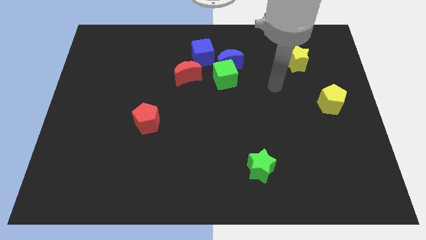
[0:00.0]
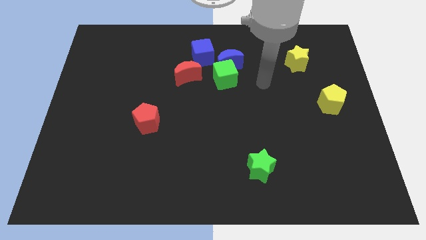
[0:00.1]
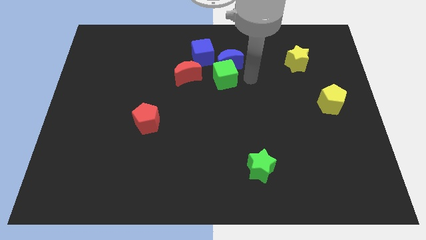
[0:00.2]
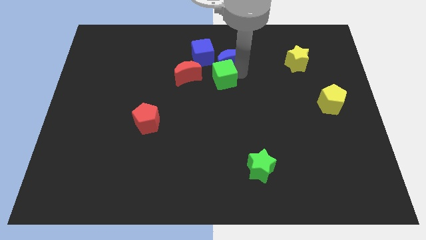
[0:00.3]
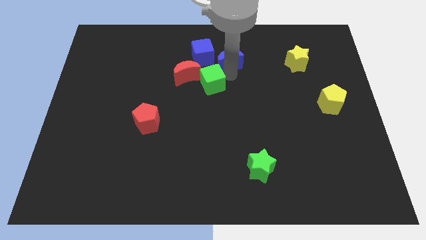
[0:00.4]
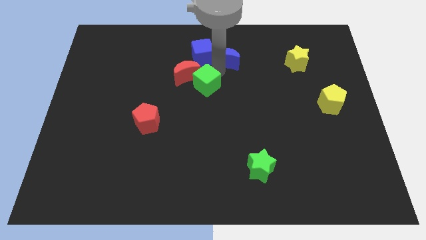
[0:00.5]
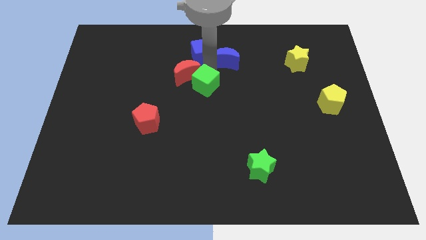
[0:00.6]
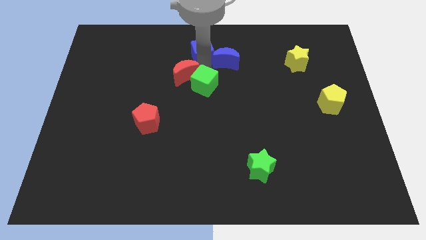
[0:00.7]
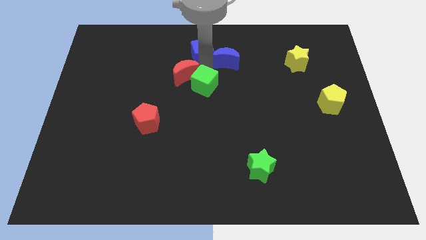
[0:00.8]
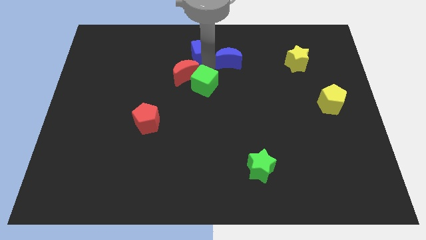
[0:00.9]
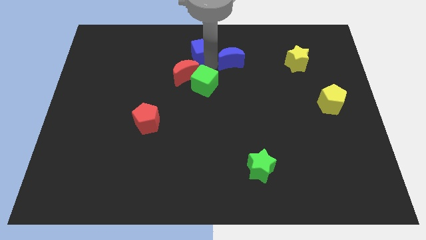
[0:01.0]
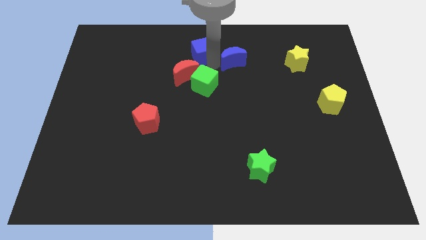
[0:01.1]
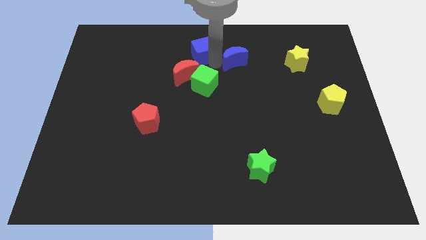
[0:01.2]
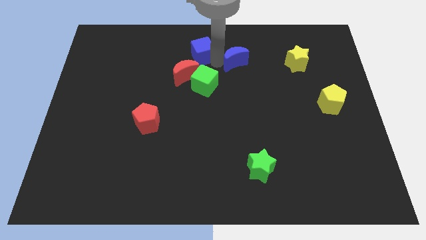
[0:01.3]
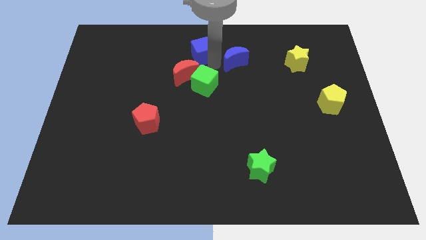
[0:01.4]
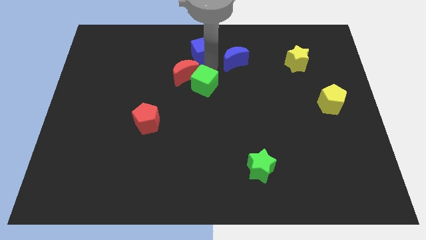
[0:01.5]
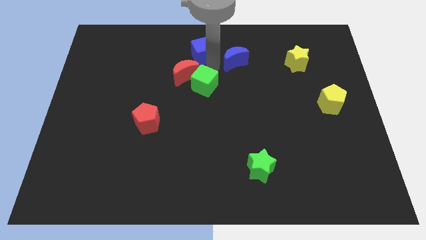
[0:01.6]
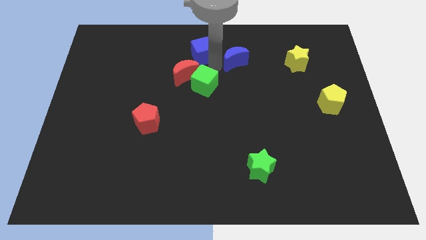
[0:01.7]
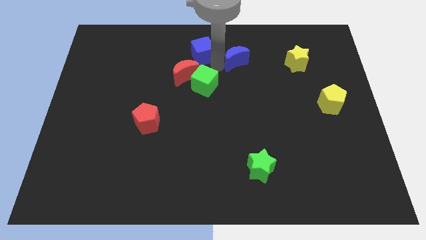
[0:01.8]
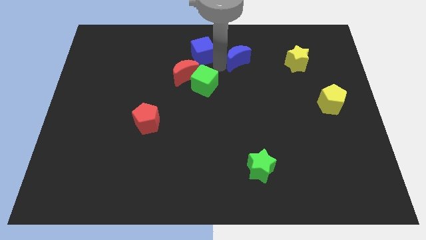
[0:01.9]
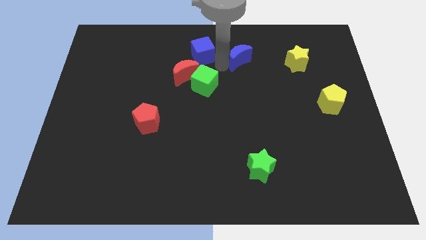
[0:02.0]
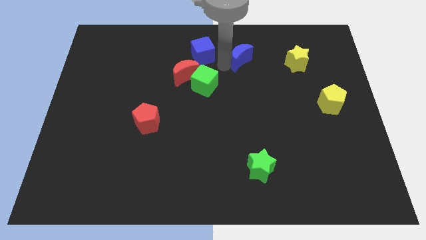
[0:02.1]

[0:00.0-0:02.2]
pull the blue moon apart from the green cube and blue cube

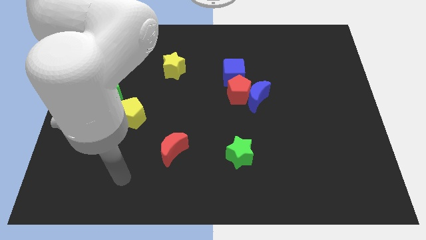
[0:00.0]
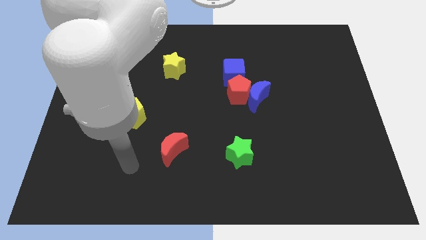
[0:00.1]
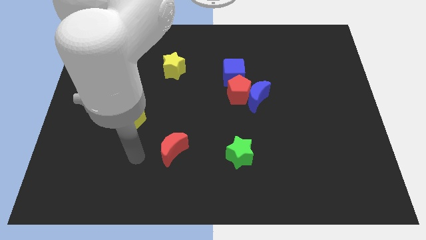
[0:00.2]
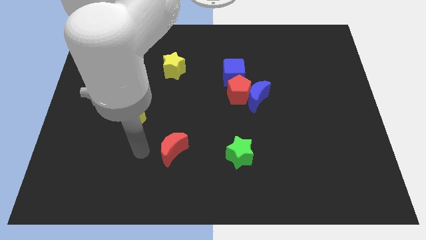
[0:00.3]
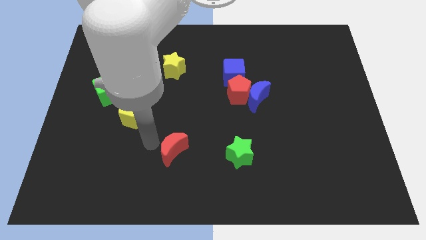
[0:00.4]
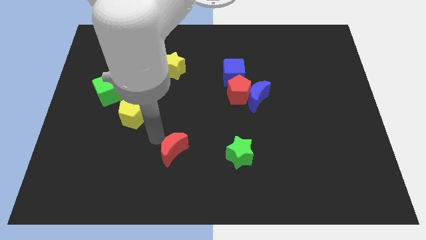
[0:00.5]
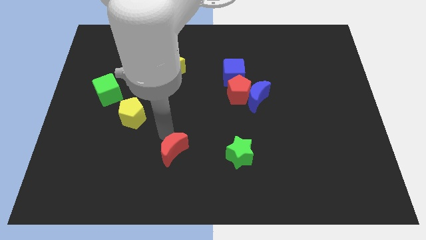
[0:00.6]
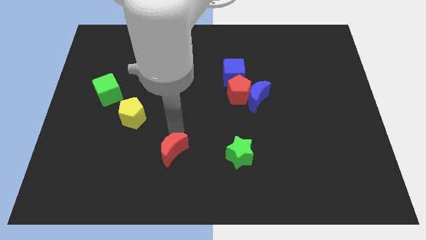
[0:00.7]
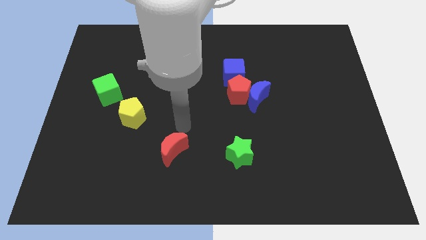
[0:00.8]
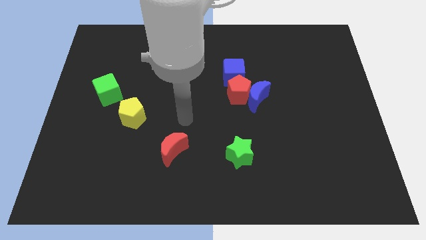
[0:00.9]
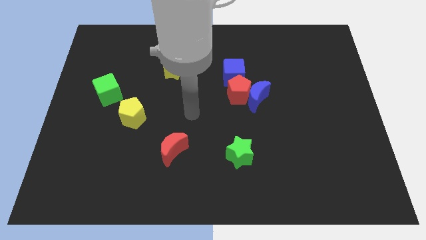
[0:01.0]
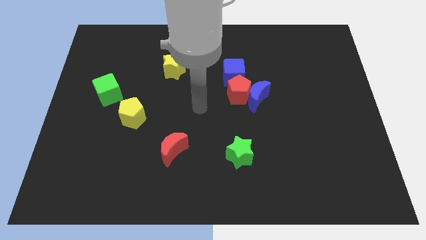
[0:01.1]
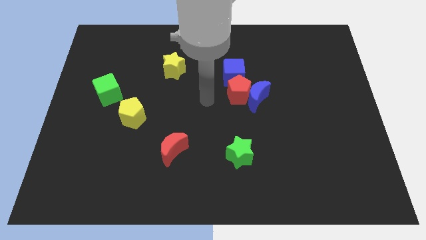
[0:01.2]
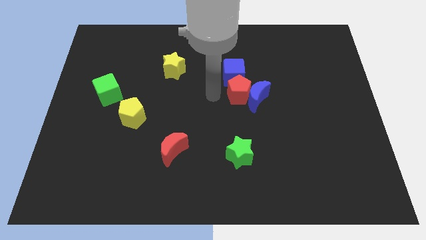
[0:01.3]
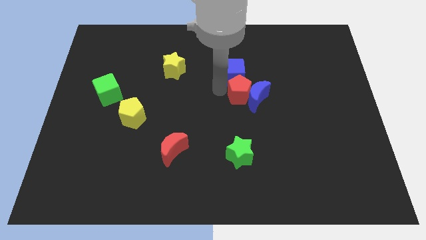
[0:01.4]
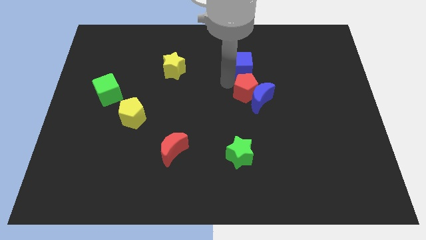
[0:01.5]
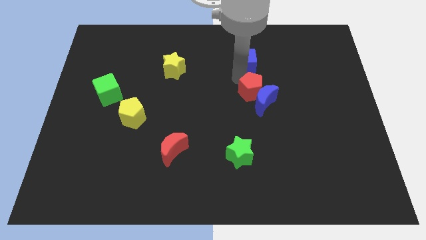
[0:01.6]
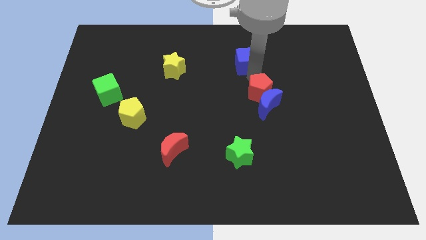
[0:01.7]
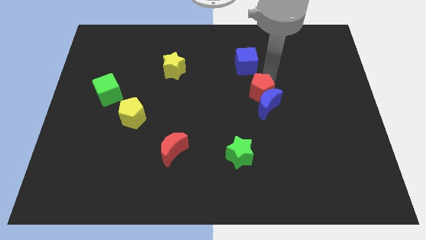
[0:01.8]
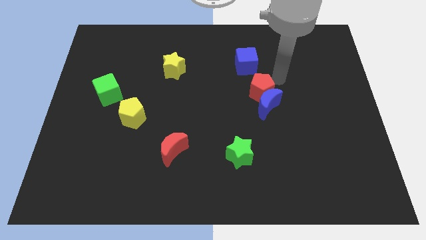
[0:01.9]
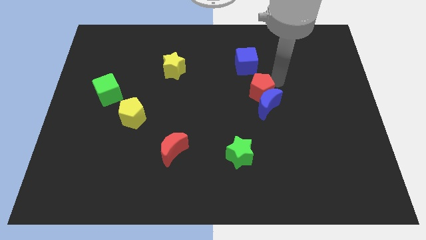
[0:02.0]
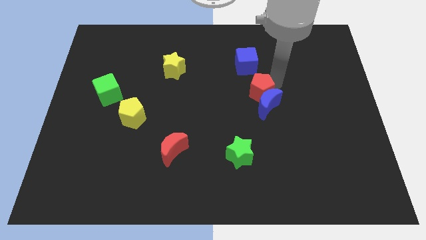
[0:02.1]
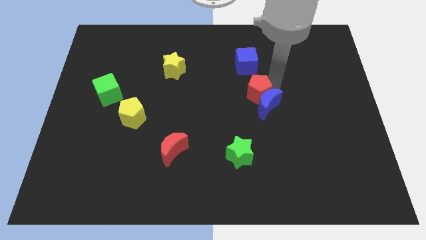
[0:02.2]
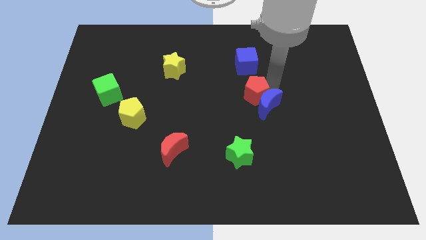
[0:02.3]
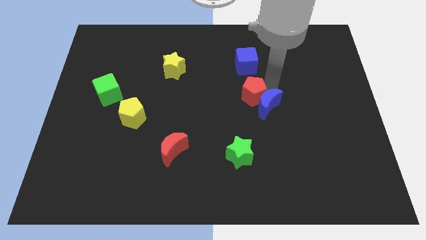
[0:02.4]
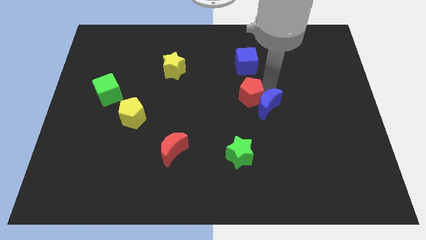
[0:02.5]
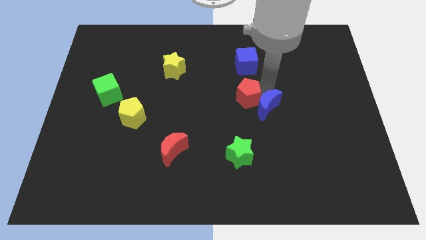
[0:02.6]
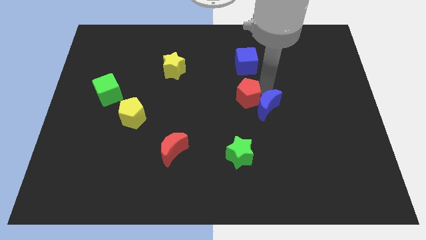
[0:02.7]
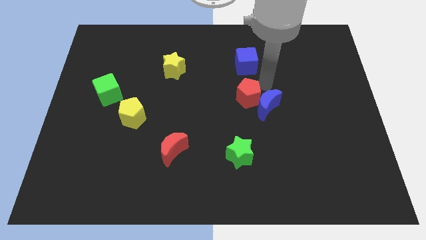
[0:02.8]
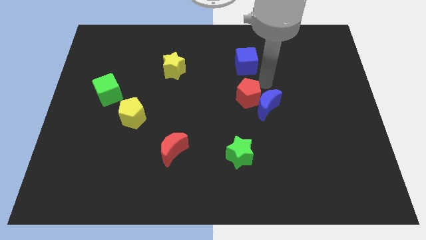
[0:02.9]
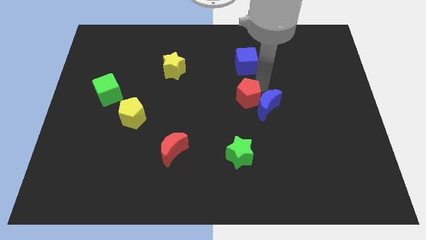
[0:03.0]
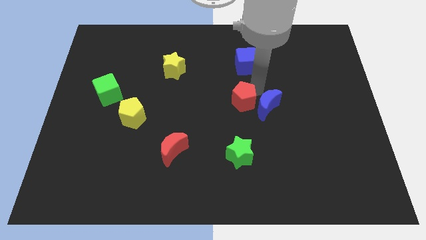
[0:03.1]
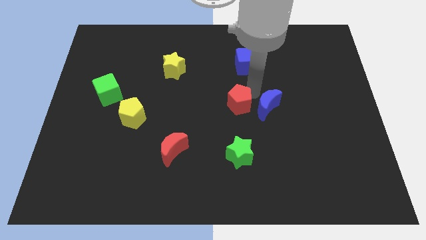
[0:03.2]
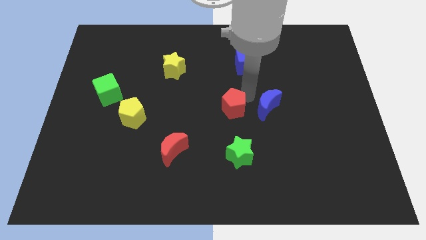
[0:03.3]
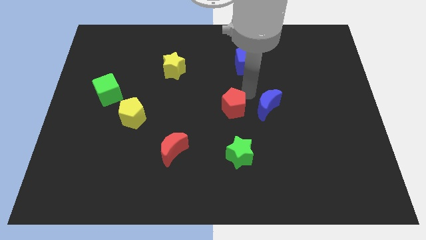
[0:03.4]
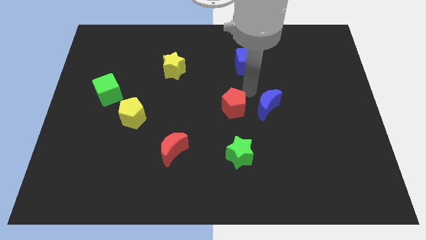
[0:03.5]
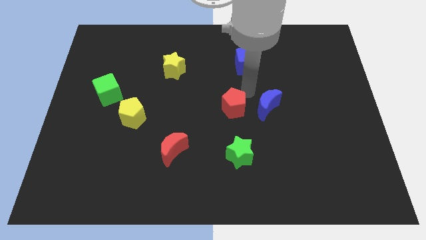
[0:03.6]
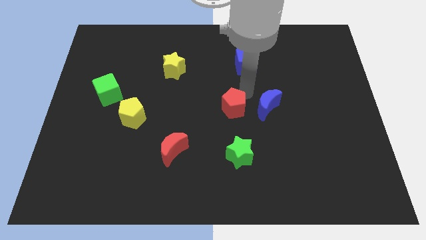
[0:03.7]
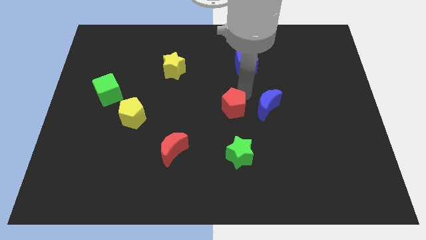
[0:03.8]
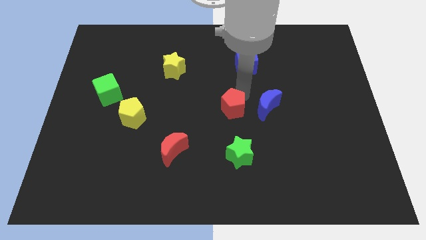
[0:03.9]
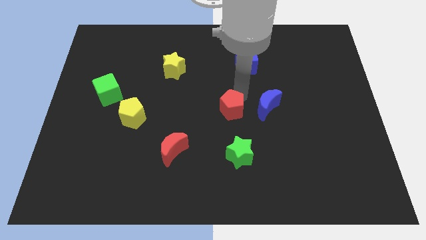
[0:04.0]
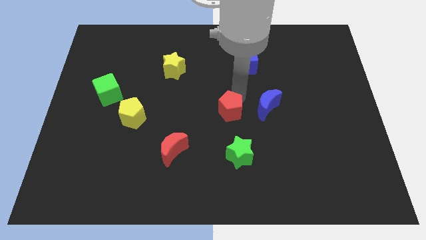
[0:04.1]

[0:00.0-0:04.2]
move the red pentagon away from the blue moon and blue cube

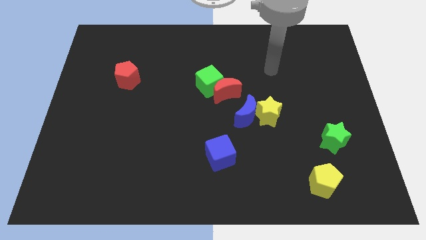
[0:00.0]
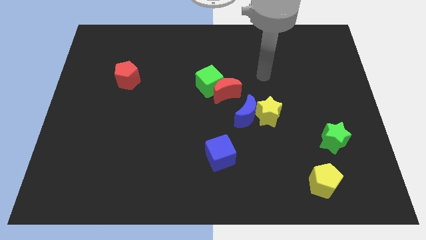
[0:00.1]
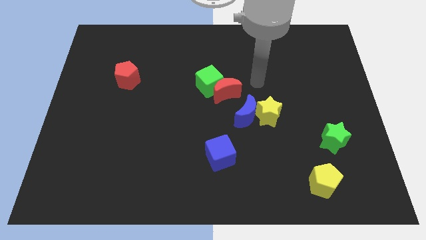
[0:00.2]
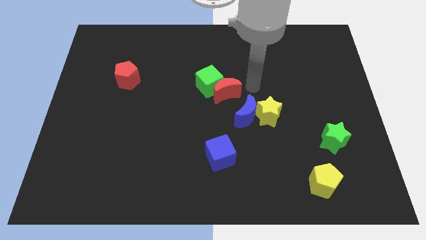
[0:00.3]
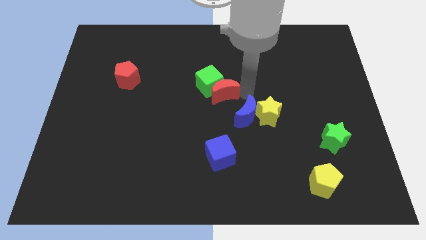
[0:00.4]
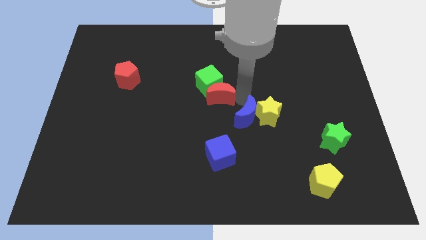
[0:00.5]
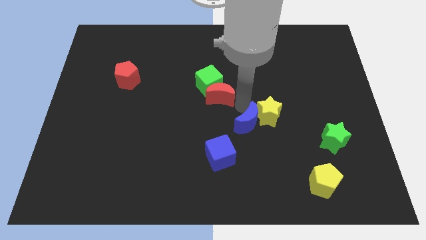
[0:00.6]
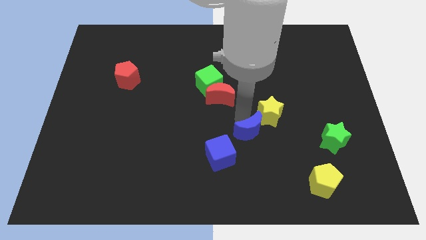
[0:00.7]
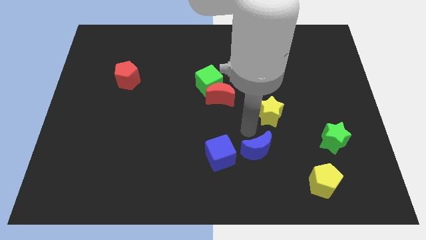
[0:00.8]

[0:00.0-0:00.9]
pull the yellow star apart from the blue moon

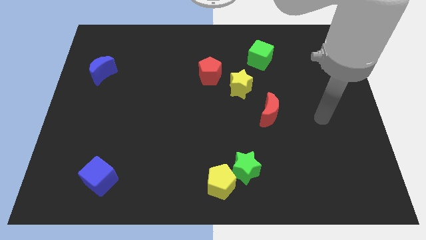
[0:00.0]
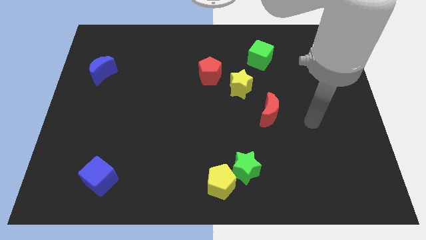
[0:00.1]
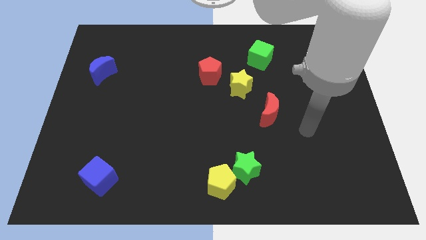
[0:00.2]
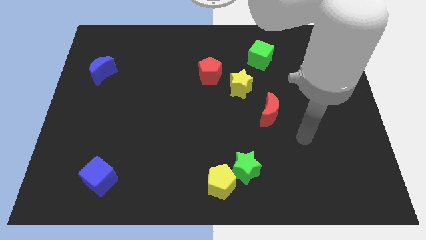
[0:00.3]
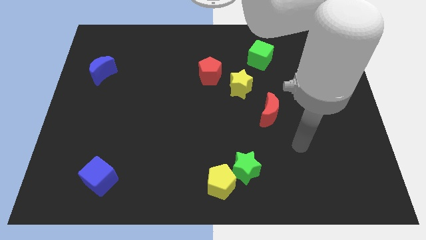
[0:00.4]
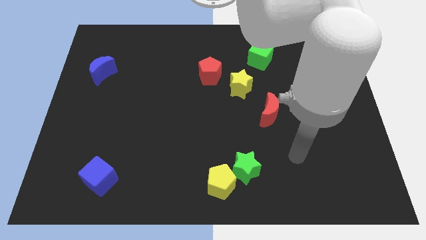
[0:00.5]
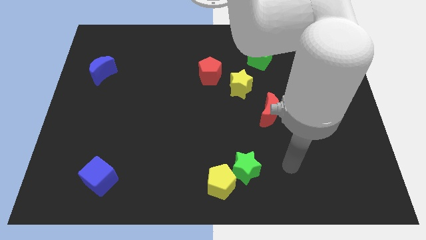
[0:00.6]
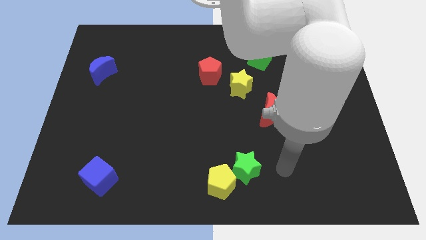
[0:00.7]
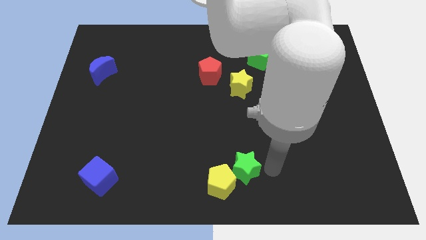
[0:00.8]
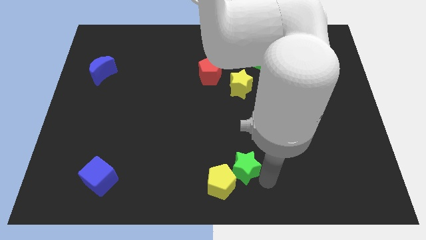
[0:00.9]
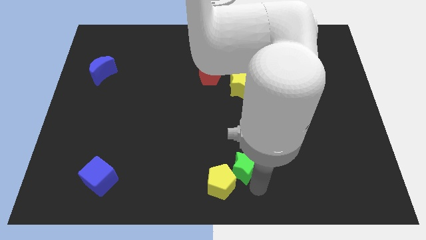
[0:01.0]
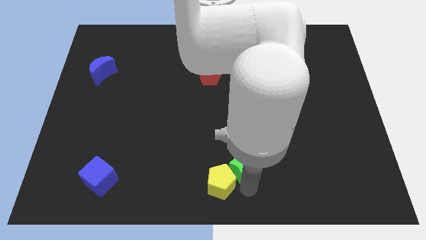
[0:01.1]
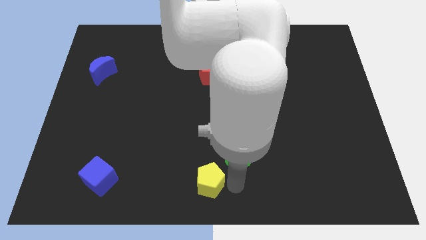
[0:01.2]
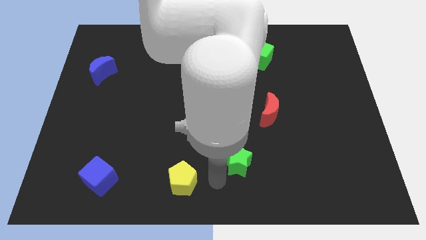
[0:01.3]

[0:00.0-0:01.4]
separate the green star from the yellow pentagon

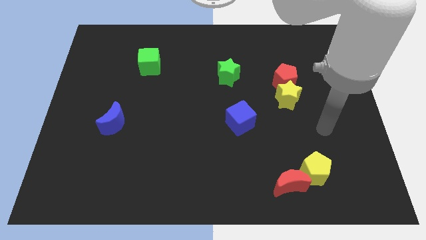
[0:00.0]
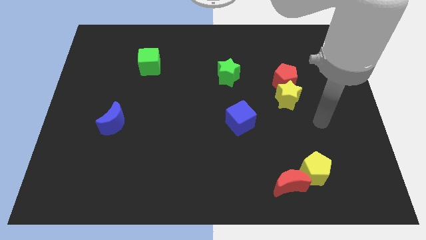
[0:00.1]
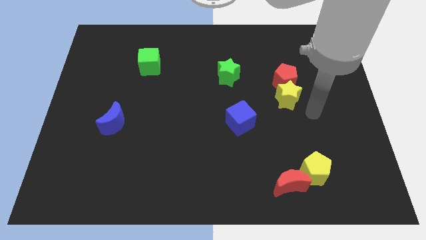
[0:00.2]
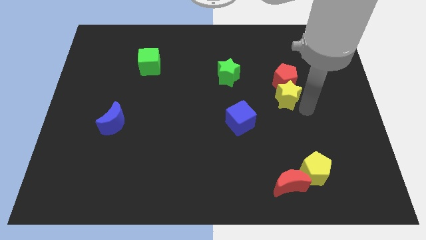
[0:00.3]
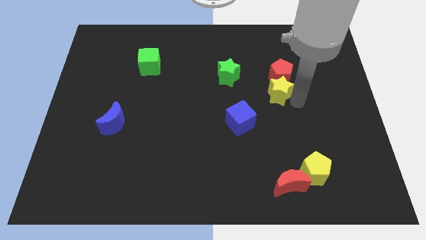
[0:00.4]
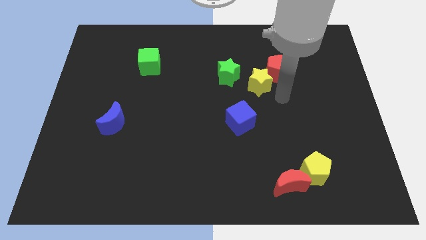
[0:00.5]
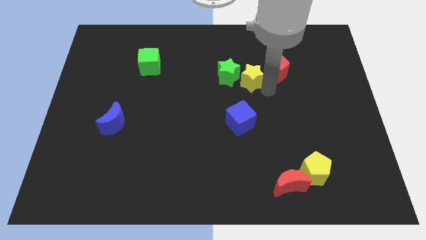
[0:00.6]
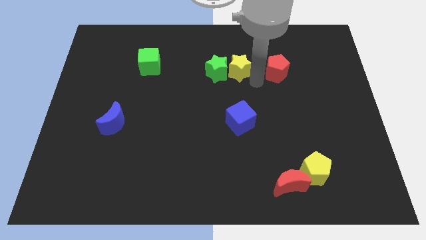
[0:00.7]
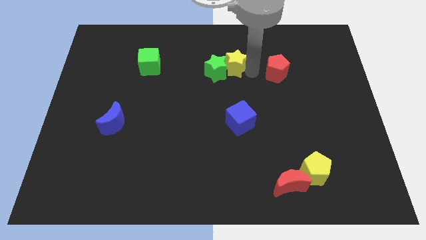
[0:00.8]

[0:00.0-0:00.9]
separate the red pentagon from the yellow star
